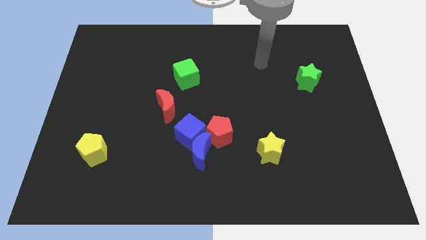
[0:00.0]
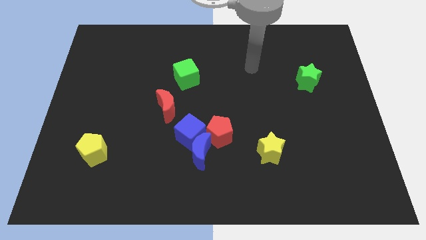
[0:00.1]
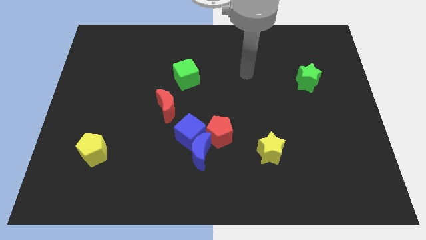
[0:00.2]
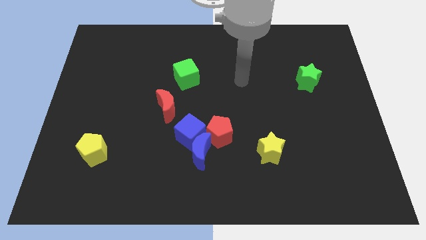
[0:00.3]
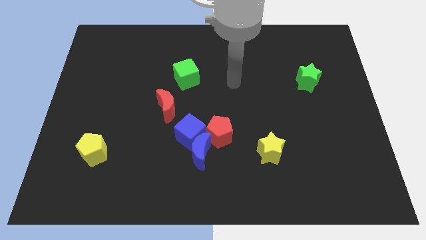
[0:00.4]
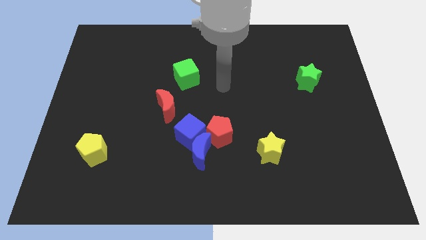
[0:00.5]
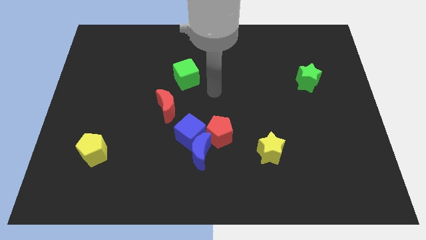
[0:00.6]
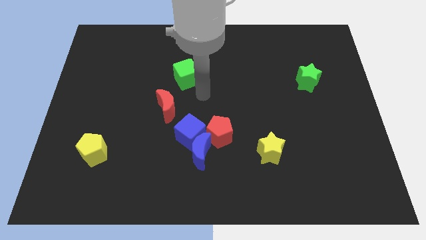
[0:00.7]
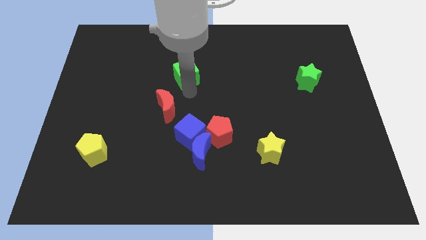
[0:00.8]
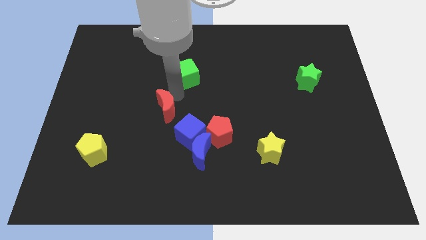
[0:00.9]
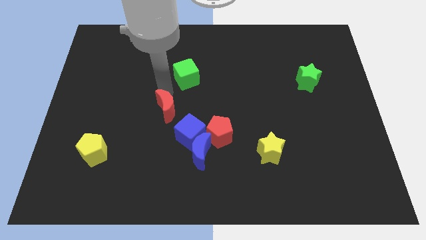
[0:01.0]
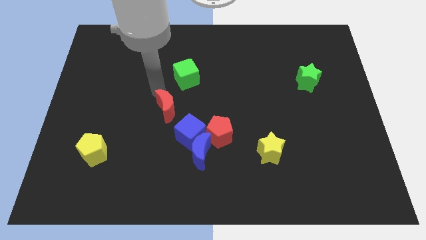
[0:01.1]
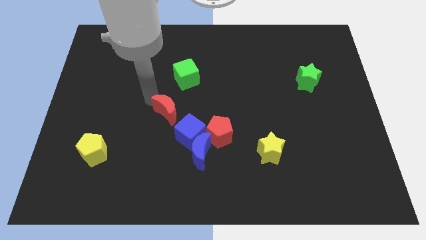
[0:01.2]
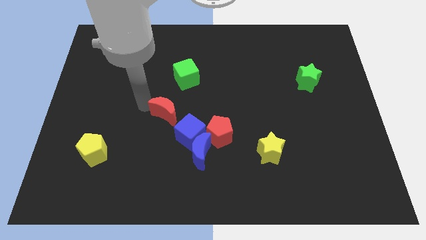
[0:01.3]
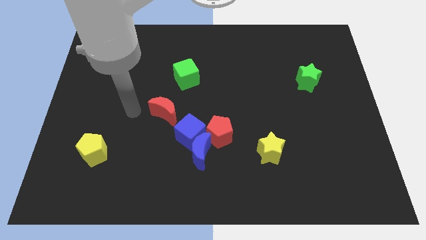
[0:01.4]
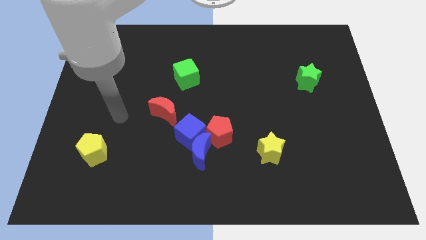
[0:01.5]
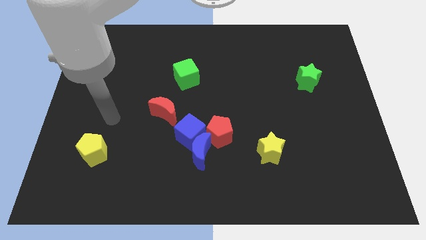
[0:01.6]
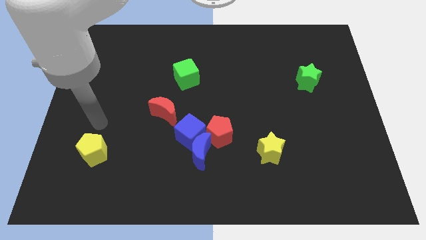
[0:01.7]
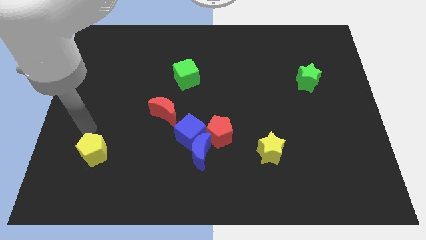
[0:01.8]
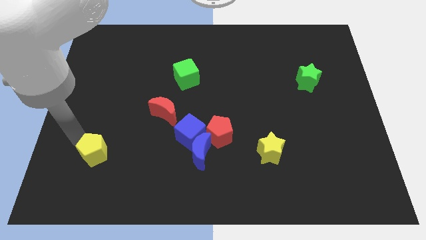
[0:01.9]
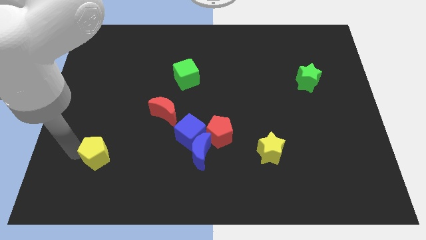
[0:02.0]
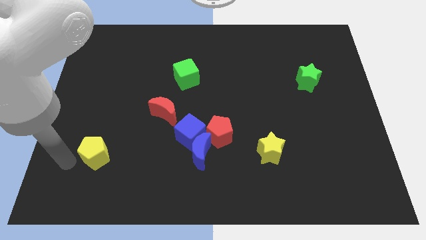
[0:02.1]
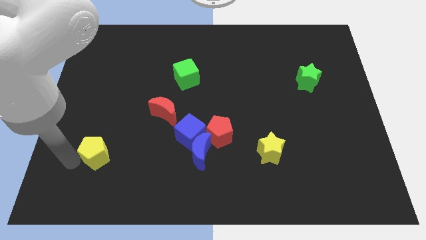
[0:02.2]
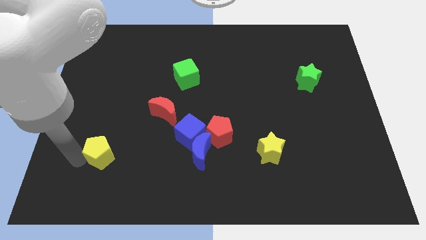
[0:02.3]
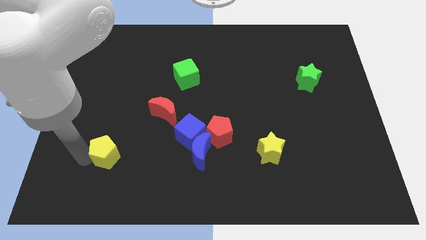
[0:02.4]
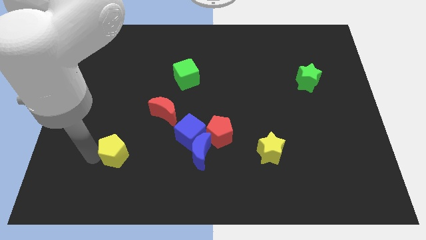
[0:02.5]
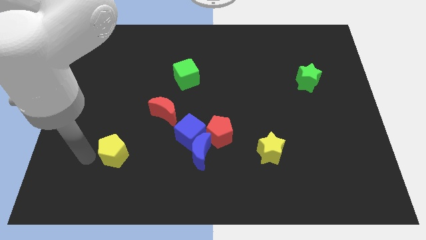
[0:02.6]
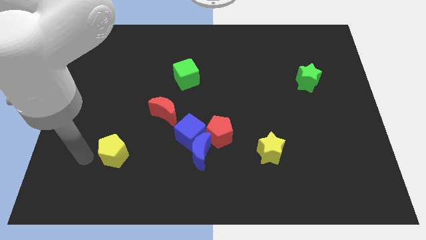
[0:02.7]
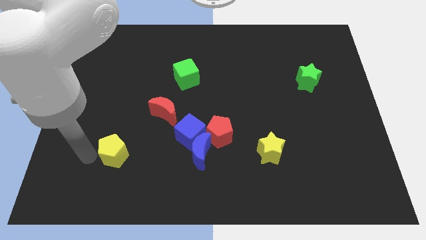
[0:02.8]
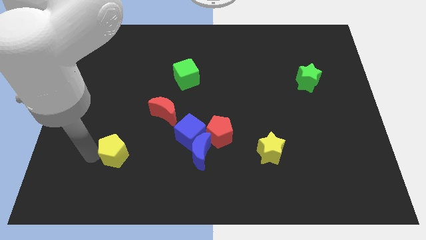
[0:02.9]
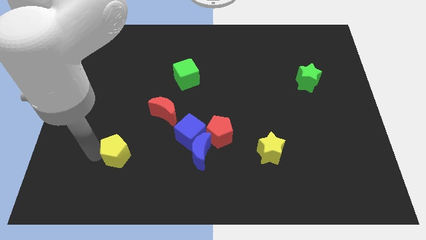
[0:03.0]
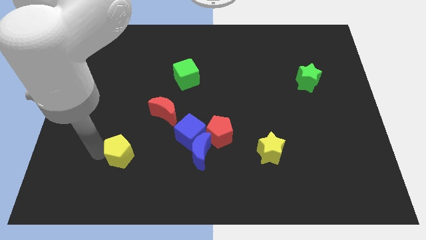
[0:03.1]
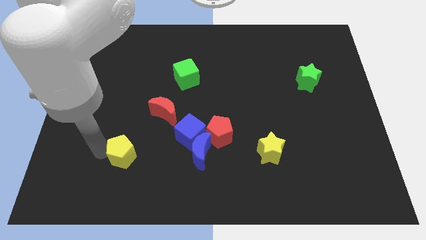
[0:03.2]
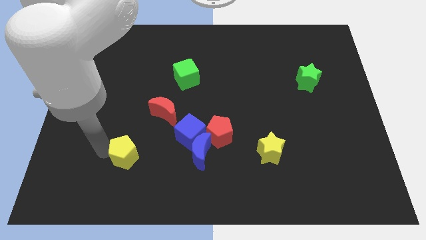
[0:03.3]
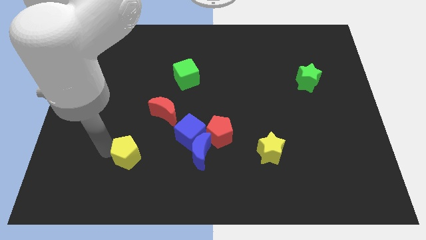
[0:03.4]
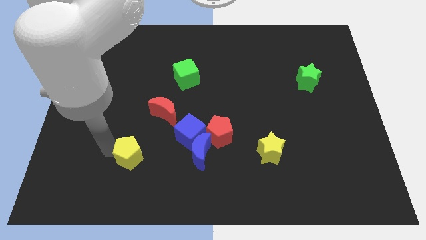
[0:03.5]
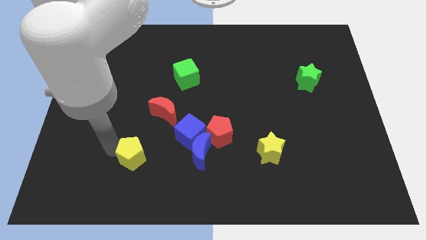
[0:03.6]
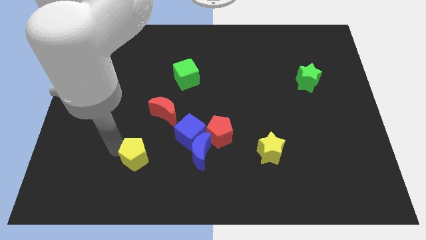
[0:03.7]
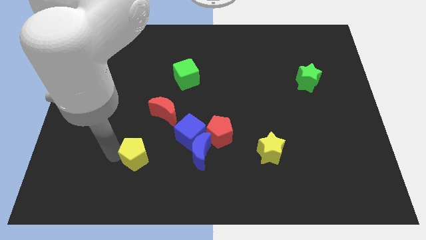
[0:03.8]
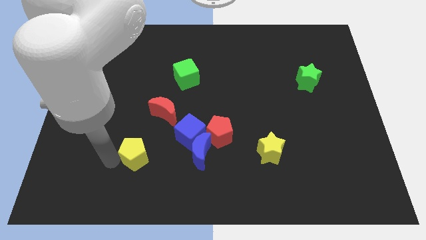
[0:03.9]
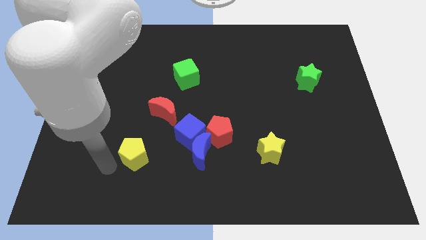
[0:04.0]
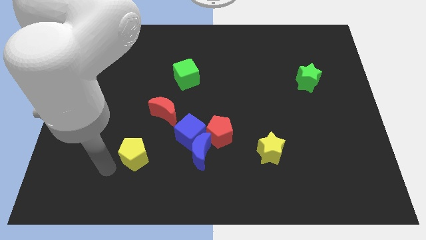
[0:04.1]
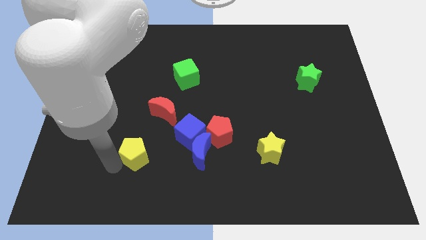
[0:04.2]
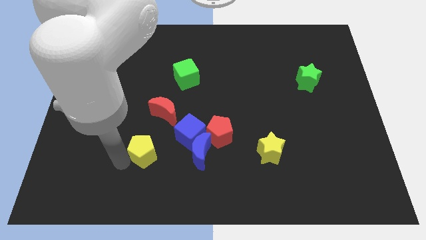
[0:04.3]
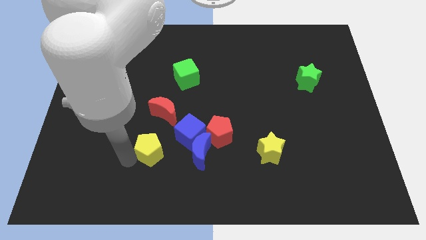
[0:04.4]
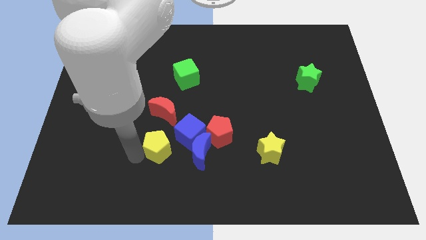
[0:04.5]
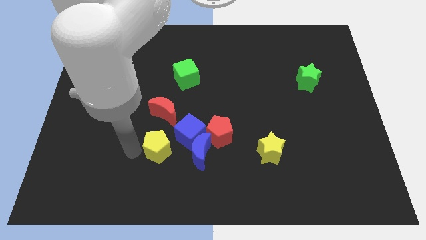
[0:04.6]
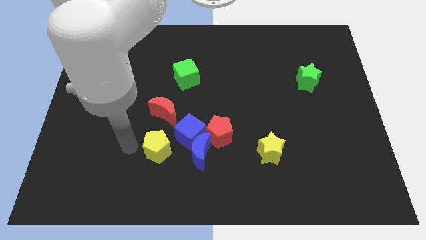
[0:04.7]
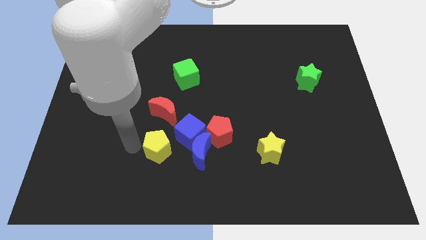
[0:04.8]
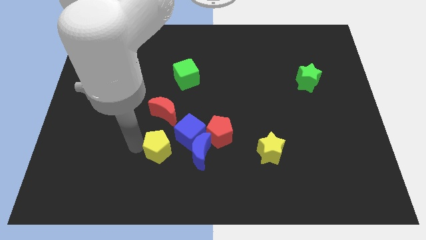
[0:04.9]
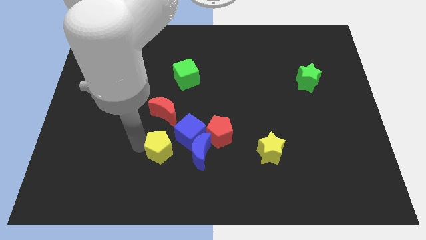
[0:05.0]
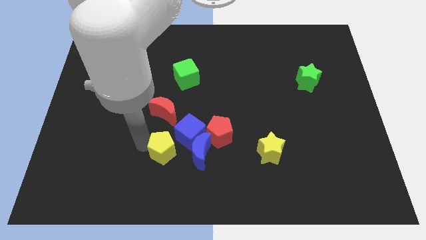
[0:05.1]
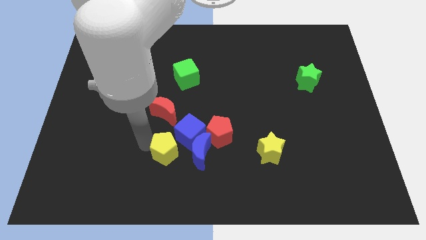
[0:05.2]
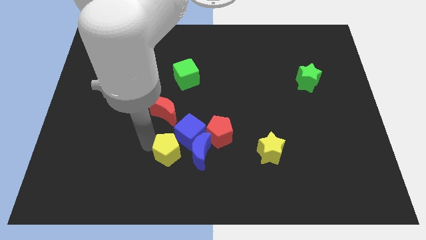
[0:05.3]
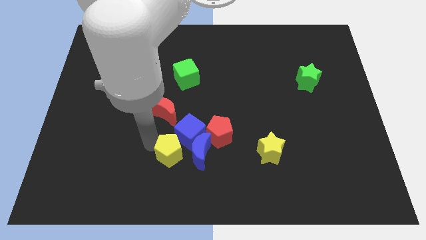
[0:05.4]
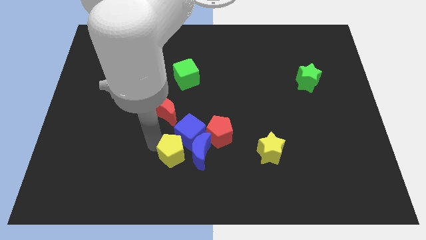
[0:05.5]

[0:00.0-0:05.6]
move the yellow pentagon close to the blue moon

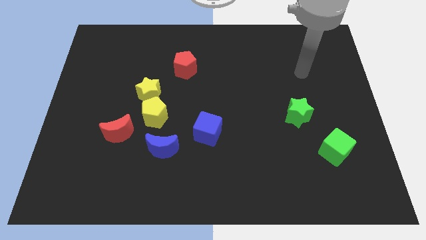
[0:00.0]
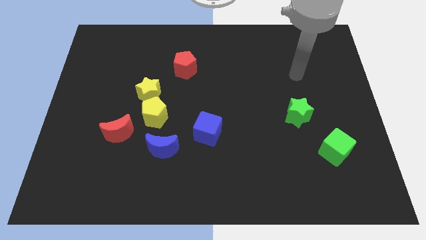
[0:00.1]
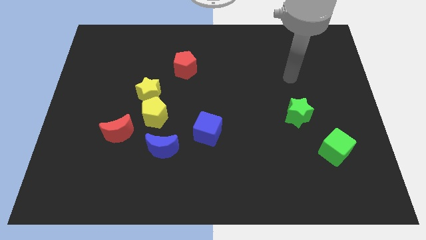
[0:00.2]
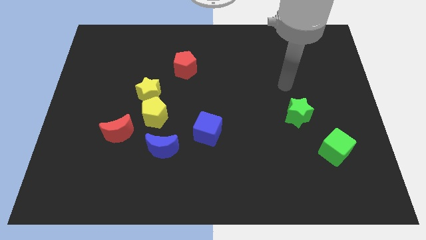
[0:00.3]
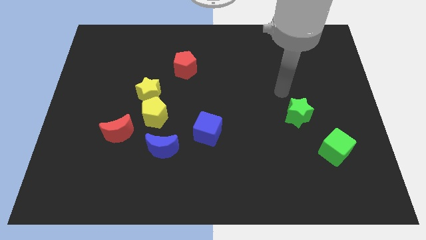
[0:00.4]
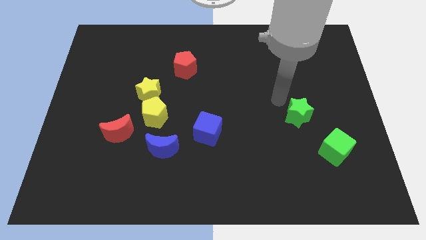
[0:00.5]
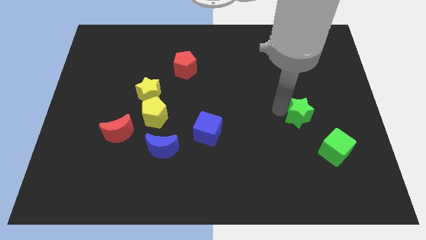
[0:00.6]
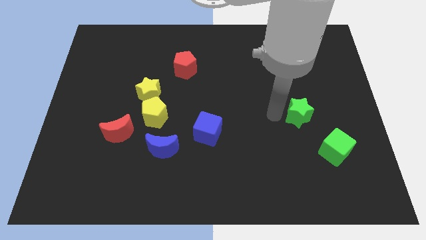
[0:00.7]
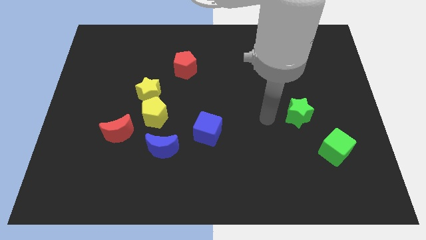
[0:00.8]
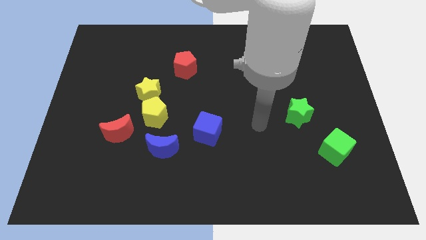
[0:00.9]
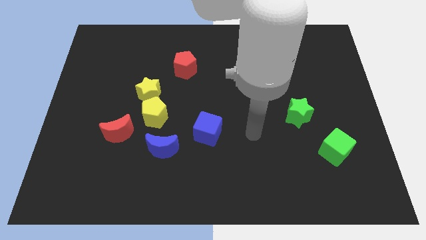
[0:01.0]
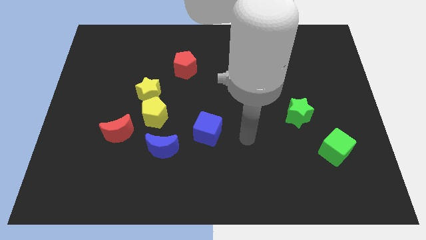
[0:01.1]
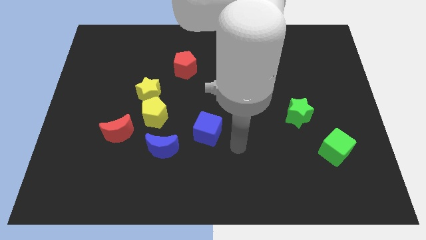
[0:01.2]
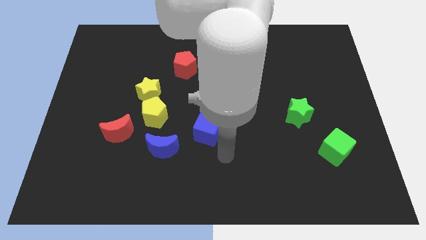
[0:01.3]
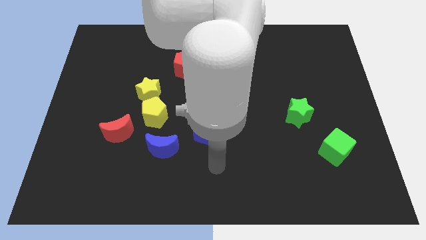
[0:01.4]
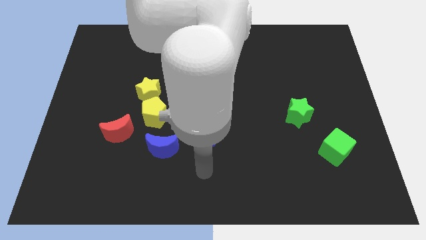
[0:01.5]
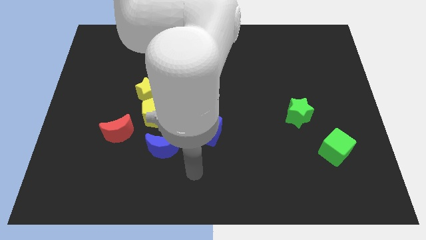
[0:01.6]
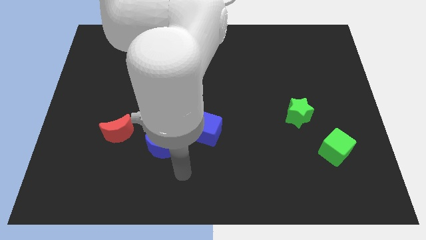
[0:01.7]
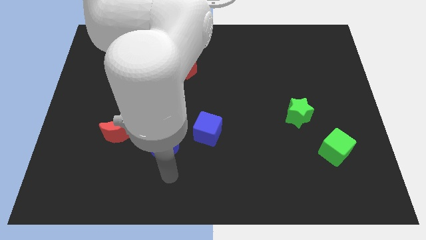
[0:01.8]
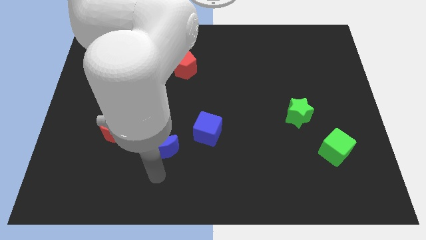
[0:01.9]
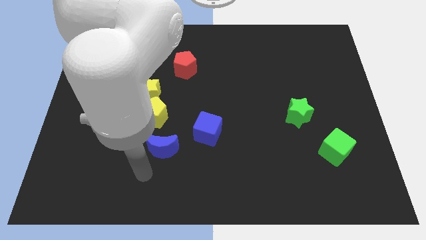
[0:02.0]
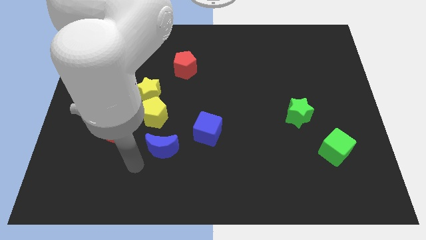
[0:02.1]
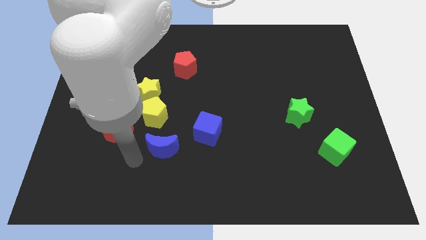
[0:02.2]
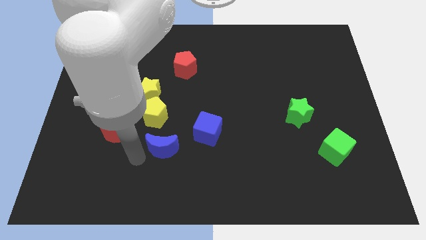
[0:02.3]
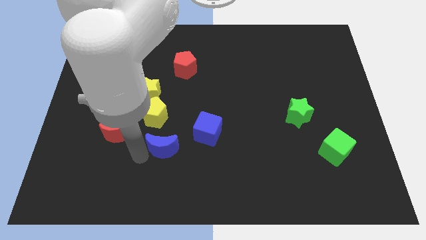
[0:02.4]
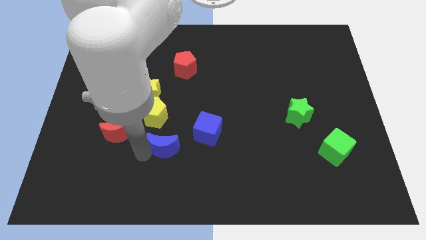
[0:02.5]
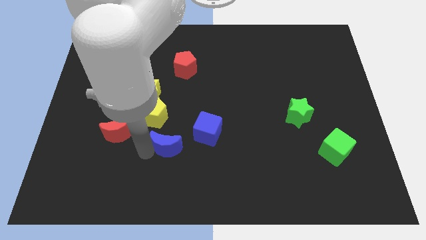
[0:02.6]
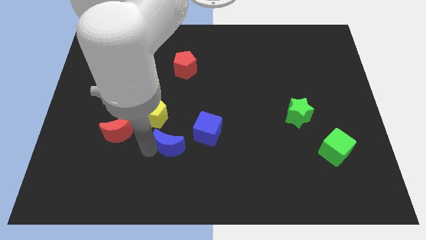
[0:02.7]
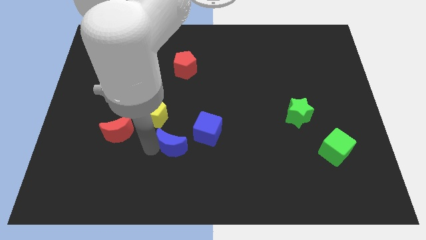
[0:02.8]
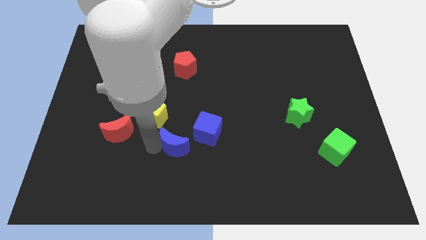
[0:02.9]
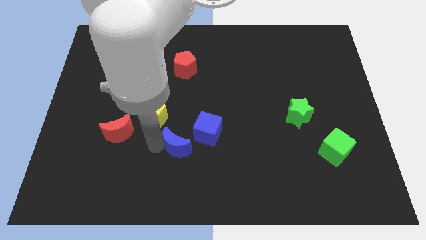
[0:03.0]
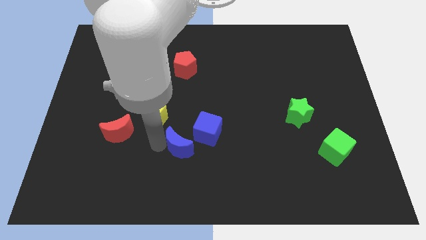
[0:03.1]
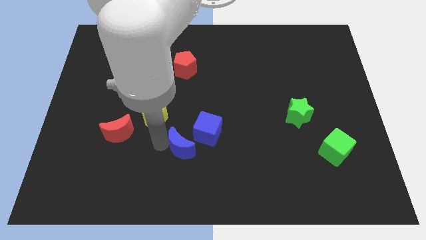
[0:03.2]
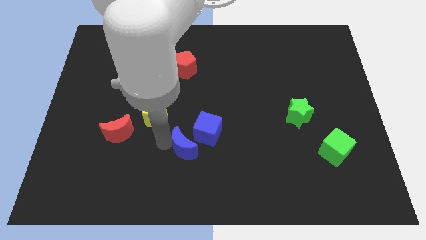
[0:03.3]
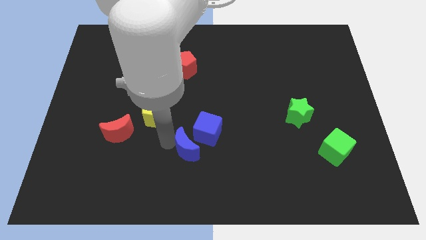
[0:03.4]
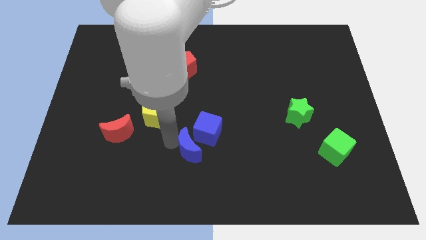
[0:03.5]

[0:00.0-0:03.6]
move the blue moon next to the blue cube
